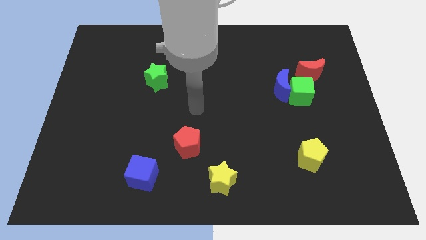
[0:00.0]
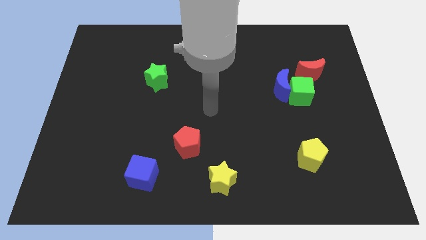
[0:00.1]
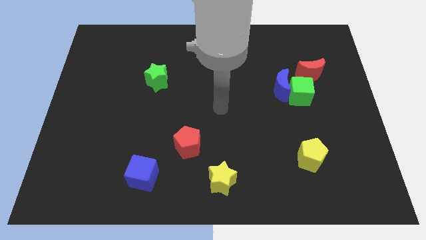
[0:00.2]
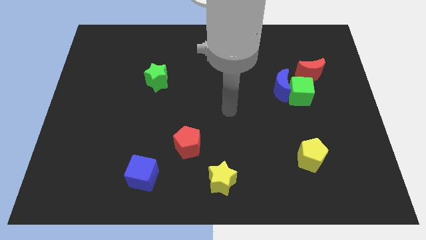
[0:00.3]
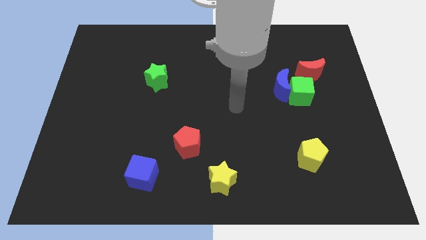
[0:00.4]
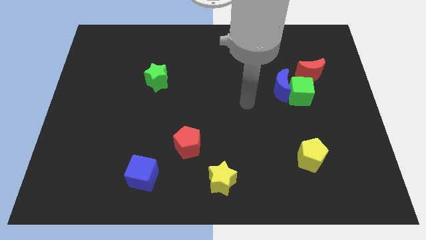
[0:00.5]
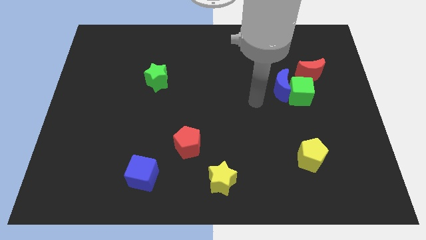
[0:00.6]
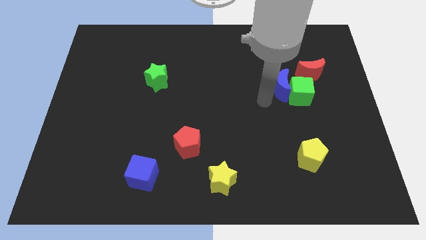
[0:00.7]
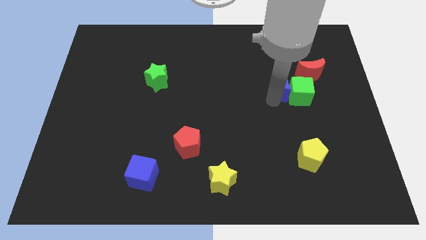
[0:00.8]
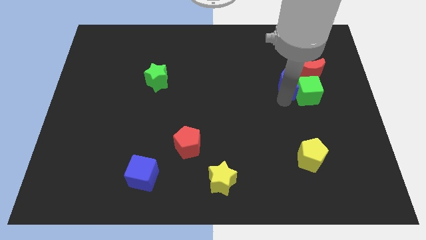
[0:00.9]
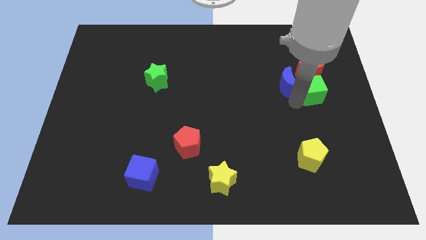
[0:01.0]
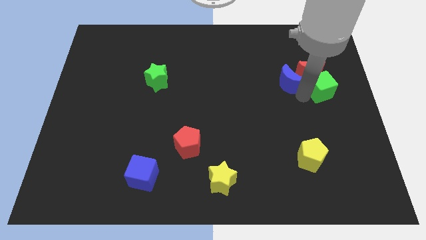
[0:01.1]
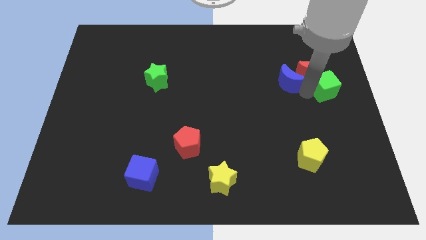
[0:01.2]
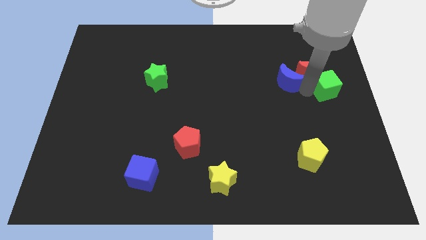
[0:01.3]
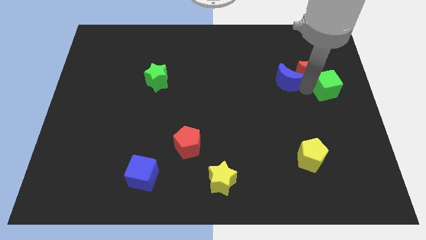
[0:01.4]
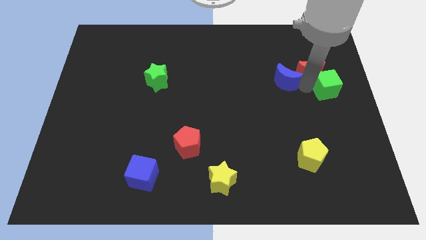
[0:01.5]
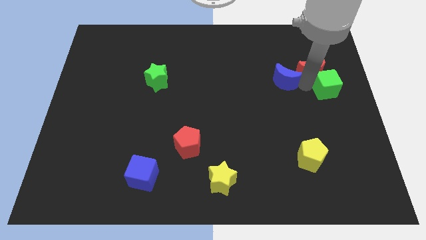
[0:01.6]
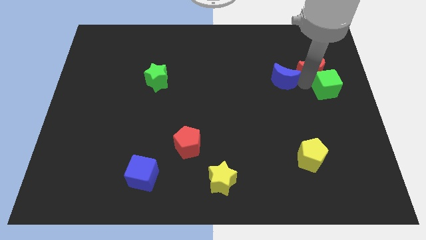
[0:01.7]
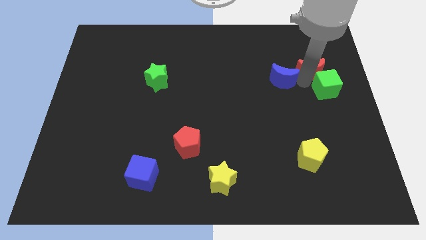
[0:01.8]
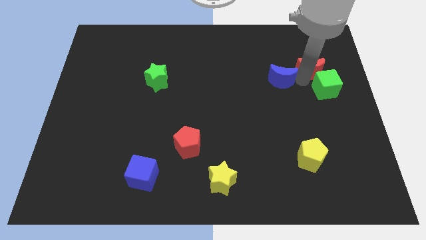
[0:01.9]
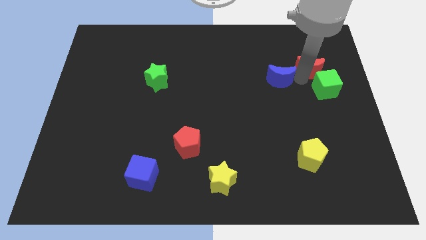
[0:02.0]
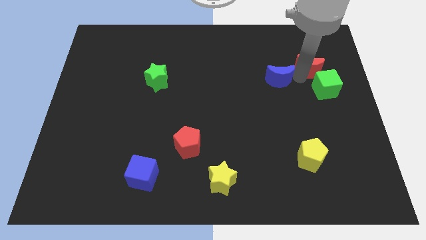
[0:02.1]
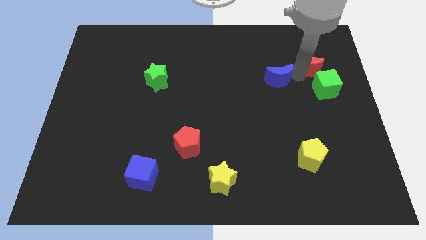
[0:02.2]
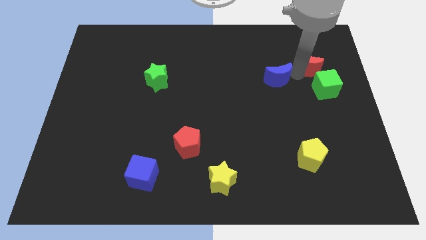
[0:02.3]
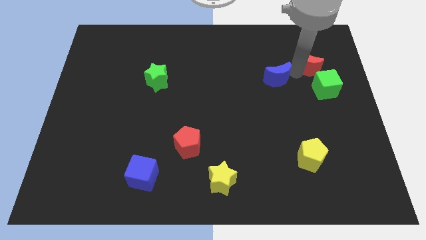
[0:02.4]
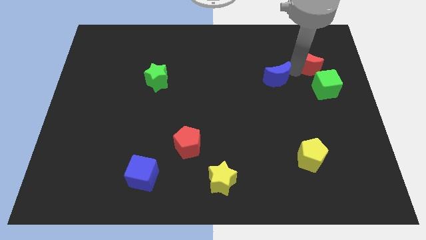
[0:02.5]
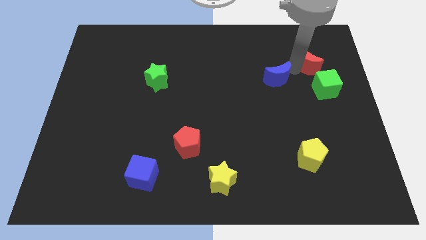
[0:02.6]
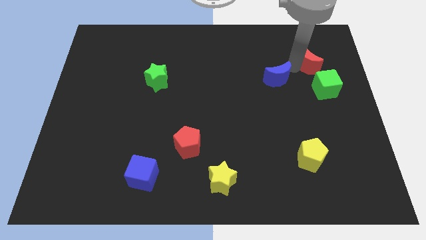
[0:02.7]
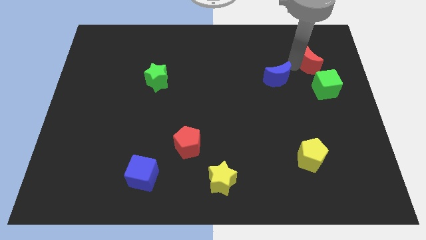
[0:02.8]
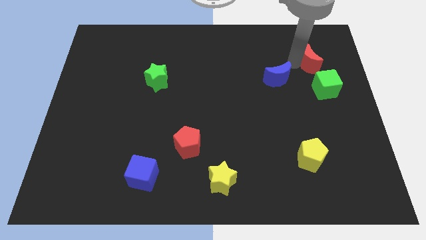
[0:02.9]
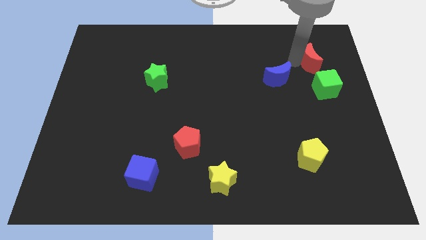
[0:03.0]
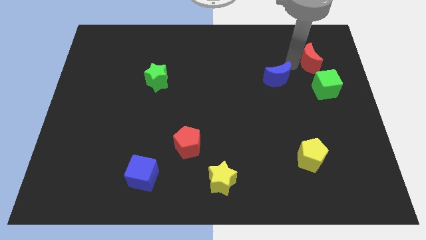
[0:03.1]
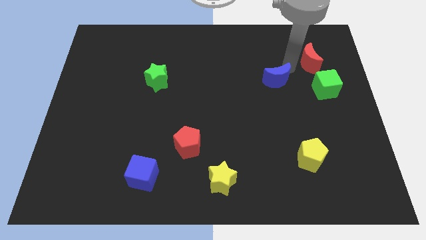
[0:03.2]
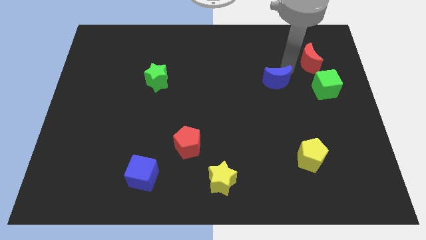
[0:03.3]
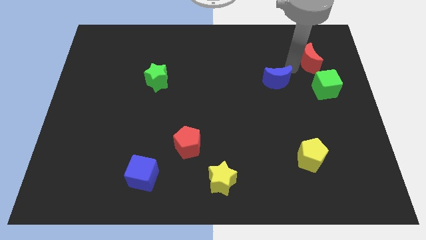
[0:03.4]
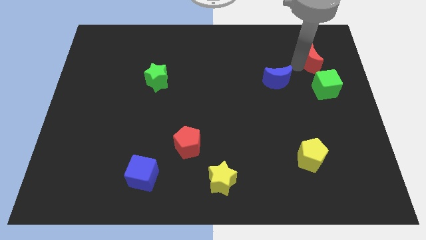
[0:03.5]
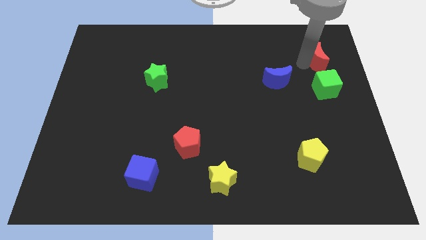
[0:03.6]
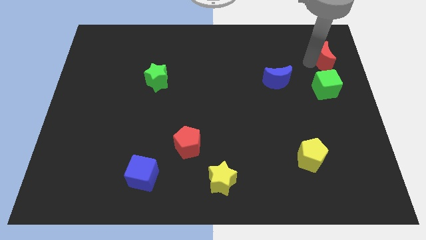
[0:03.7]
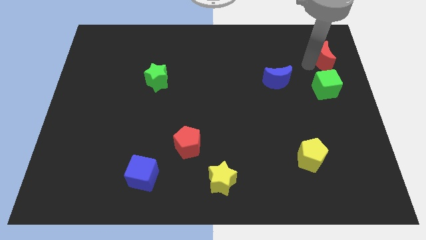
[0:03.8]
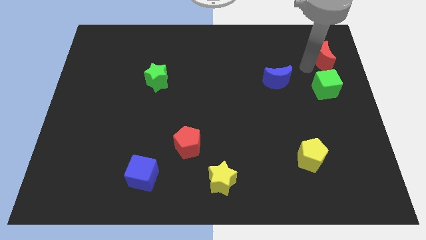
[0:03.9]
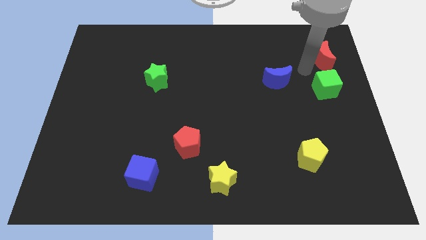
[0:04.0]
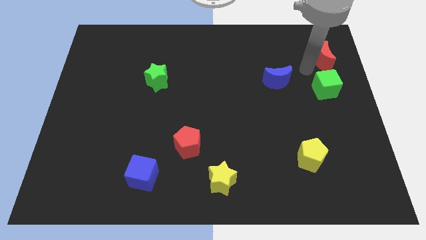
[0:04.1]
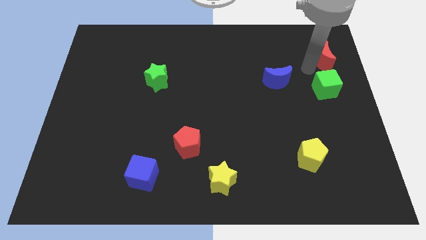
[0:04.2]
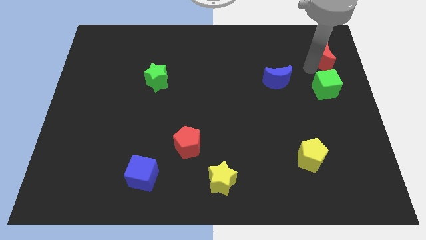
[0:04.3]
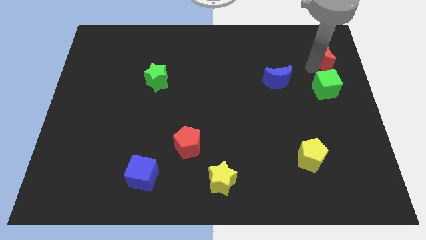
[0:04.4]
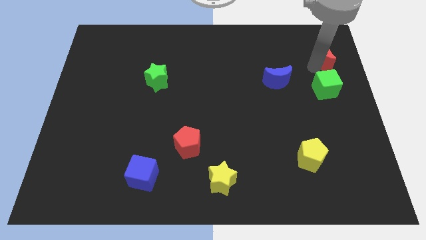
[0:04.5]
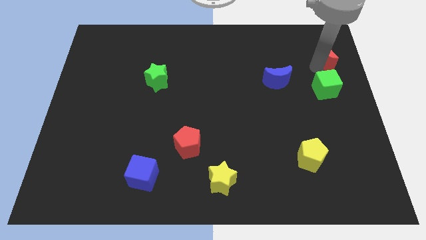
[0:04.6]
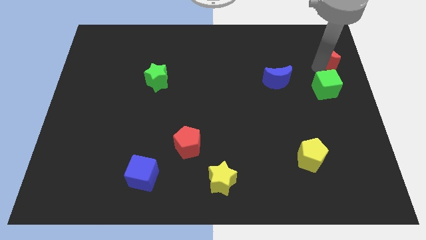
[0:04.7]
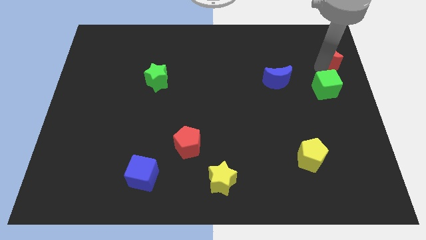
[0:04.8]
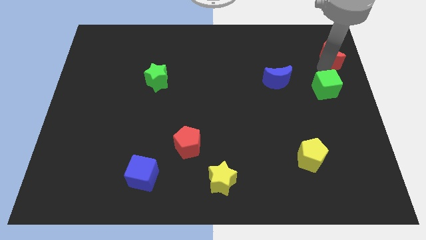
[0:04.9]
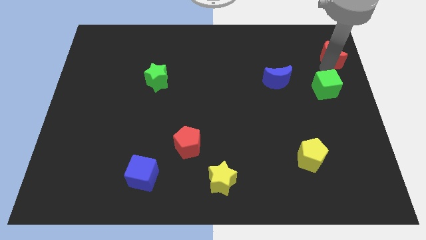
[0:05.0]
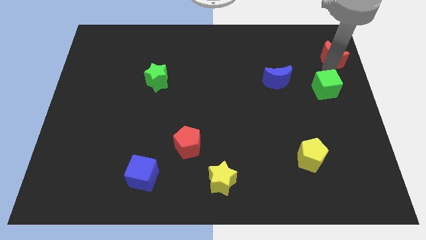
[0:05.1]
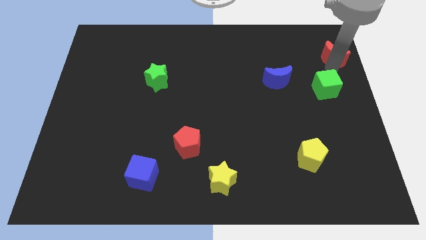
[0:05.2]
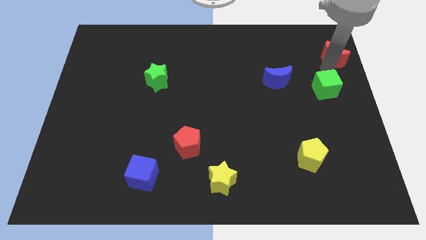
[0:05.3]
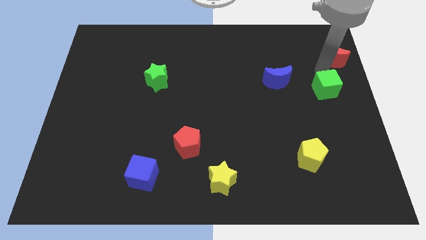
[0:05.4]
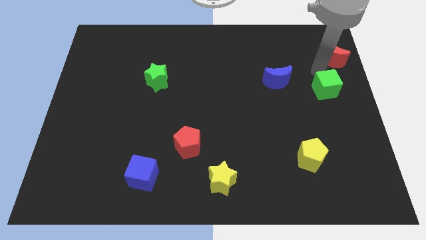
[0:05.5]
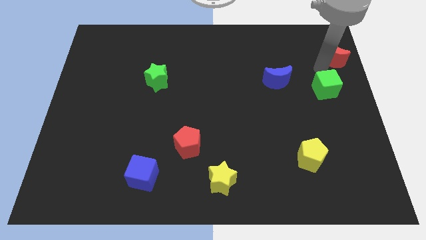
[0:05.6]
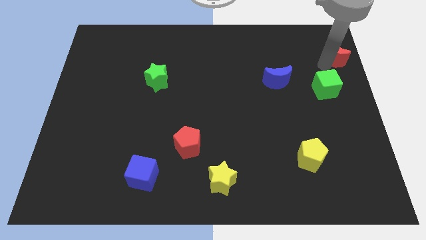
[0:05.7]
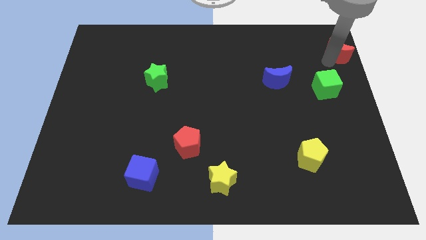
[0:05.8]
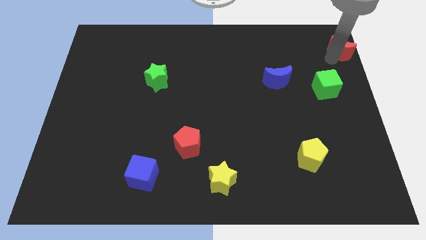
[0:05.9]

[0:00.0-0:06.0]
push the red moon to the upper right corner

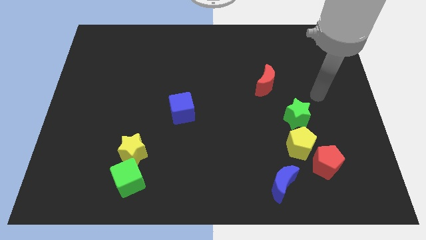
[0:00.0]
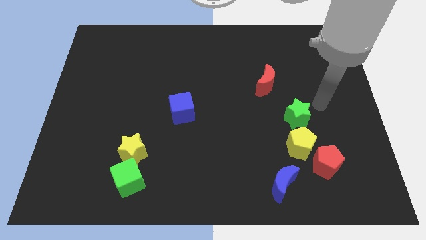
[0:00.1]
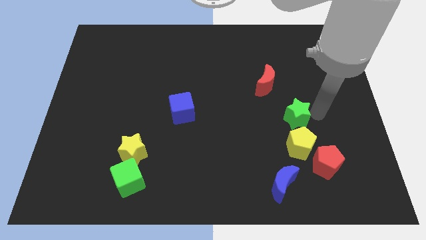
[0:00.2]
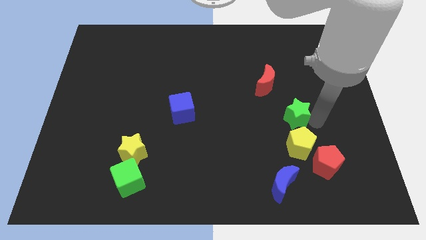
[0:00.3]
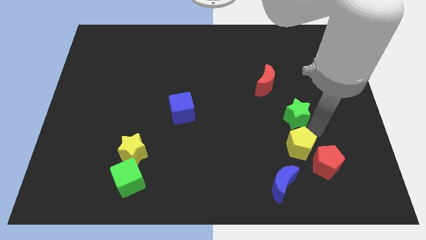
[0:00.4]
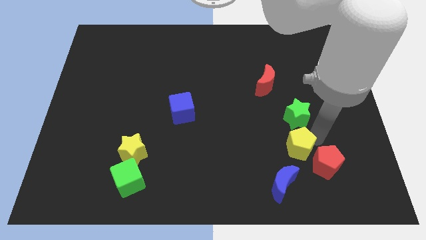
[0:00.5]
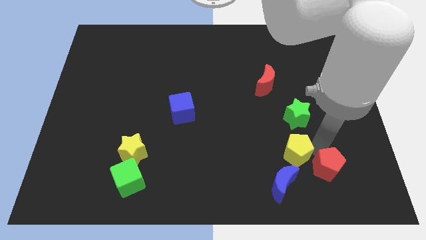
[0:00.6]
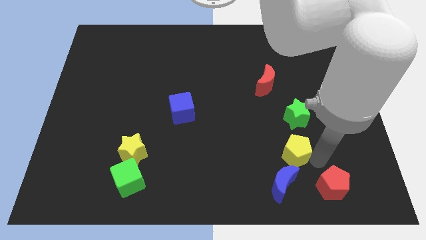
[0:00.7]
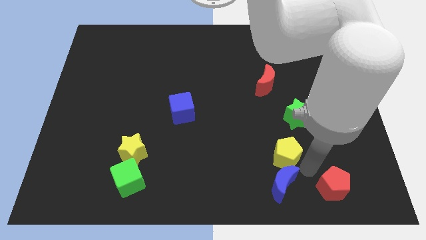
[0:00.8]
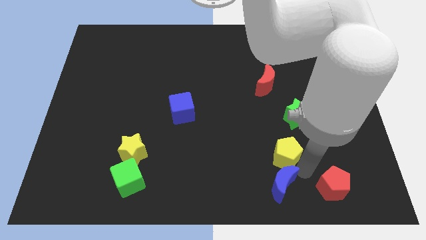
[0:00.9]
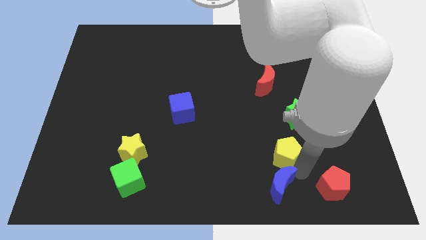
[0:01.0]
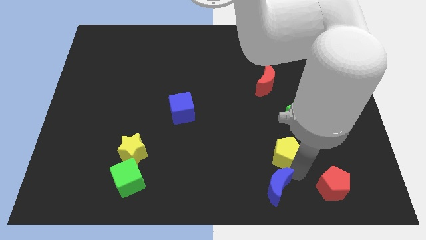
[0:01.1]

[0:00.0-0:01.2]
put the blue moon to the bottom
